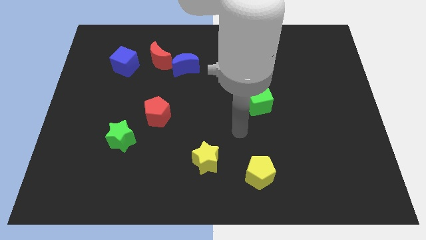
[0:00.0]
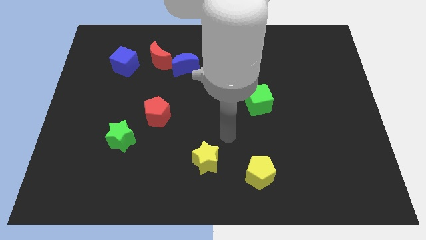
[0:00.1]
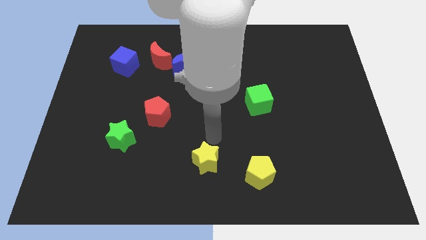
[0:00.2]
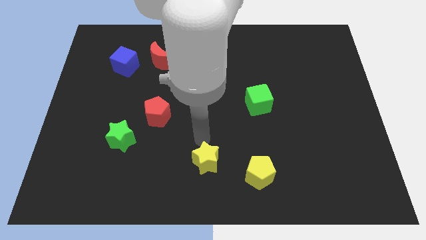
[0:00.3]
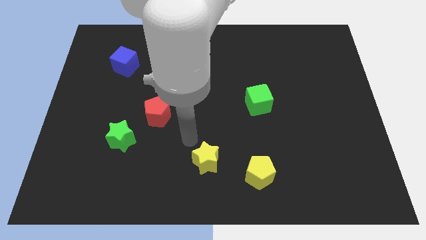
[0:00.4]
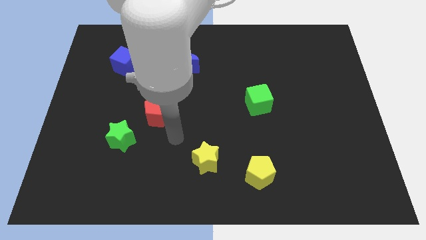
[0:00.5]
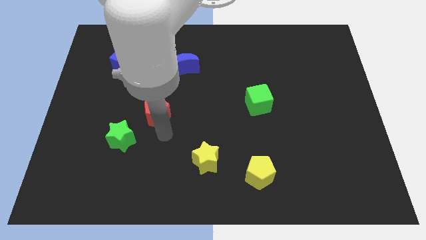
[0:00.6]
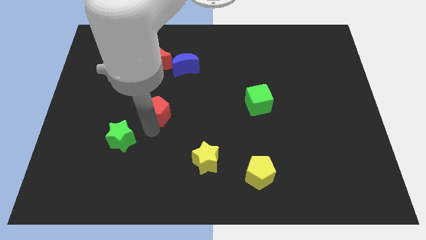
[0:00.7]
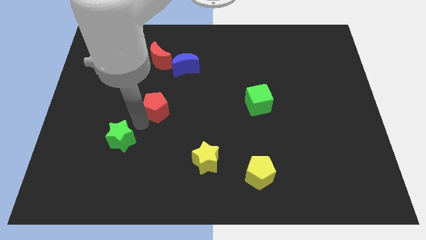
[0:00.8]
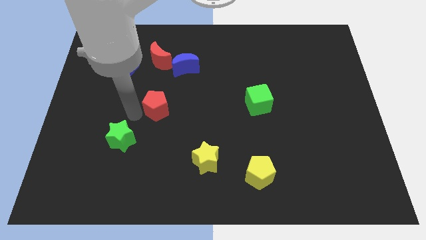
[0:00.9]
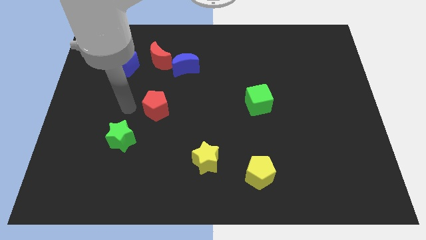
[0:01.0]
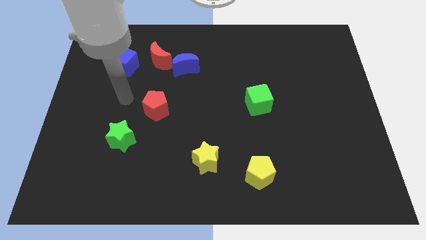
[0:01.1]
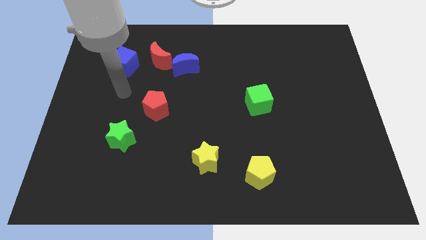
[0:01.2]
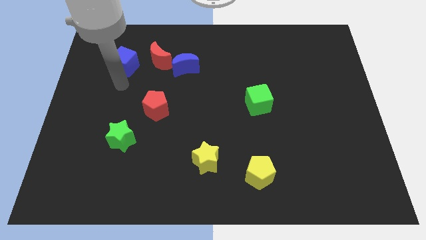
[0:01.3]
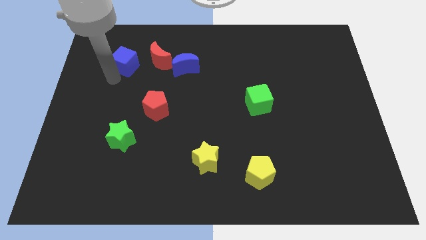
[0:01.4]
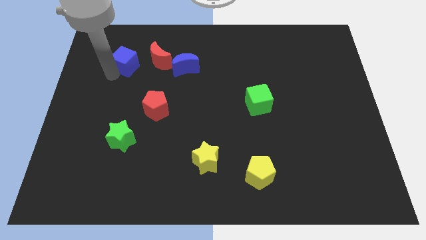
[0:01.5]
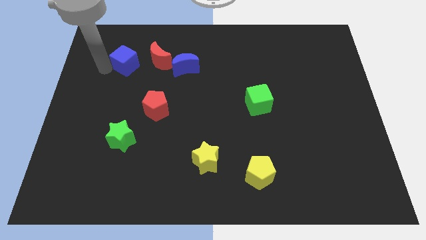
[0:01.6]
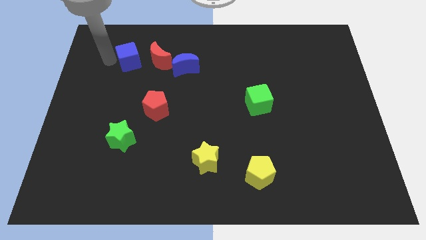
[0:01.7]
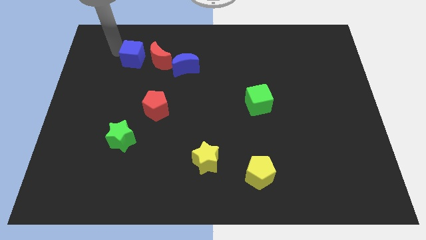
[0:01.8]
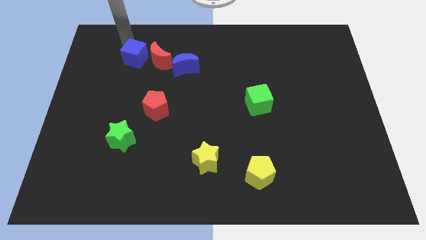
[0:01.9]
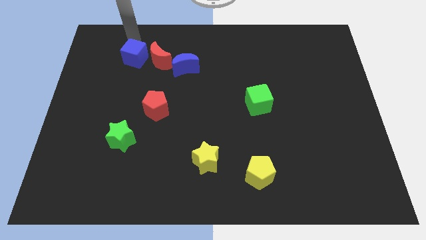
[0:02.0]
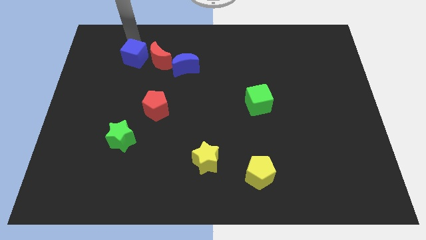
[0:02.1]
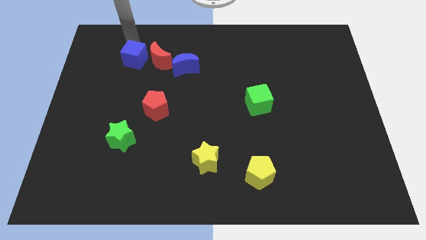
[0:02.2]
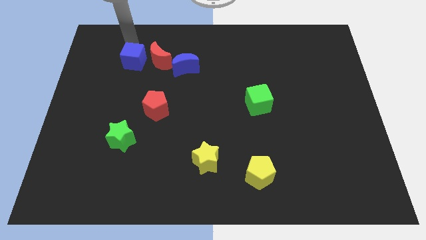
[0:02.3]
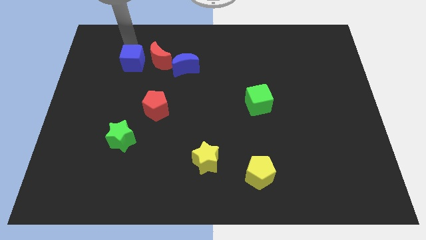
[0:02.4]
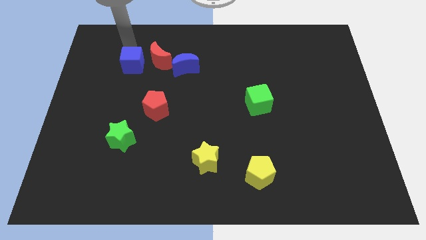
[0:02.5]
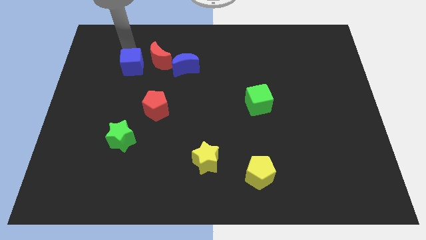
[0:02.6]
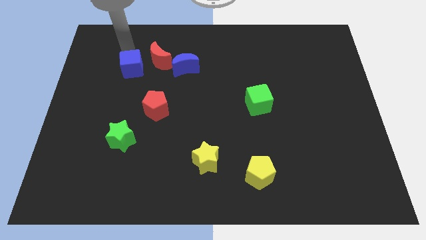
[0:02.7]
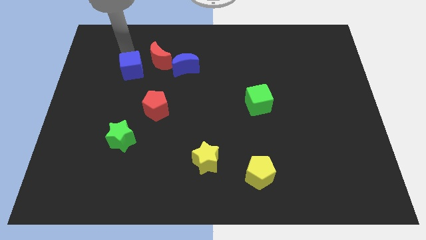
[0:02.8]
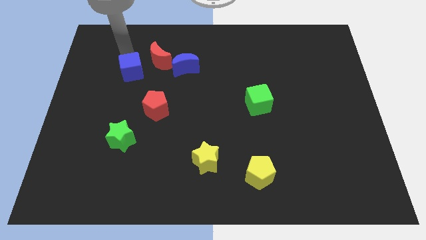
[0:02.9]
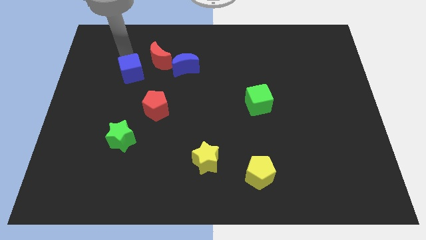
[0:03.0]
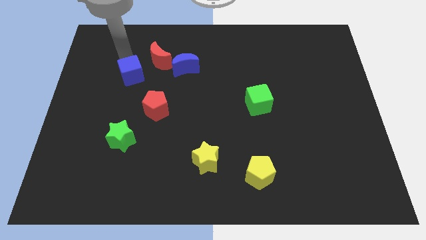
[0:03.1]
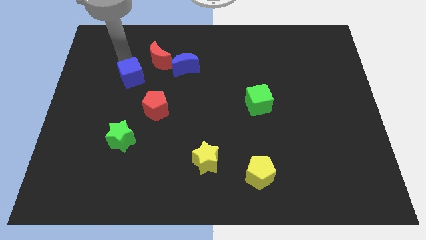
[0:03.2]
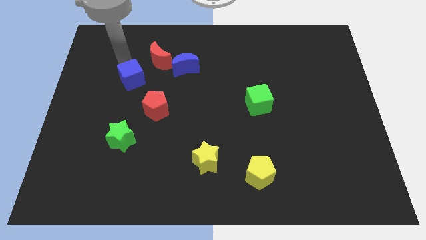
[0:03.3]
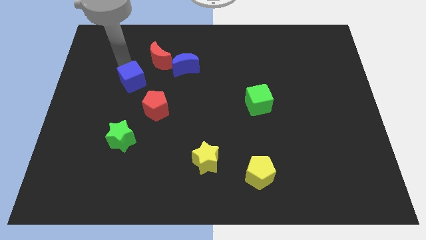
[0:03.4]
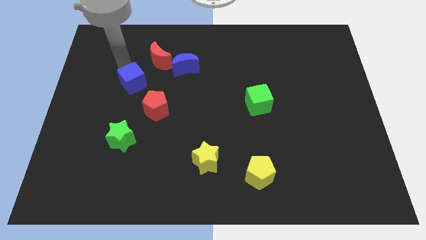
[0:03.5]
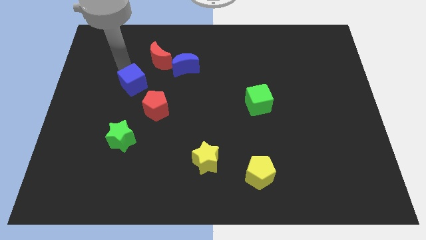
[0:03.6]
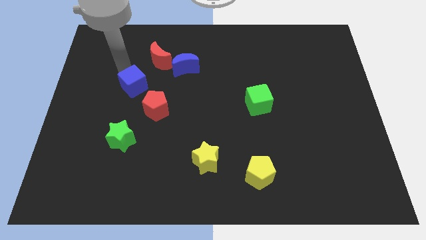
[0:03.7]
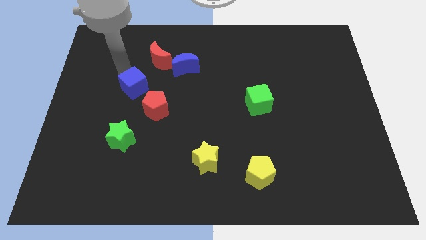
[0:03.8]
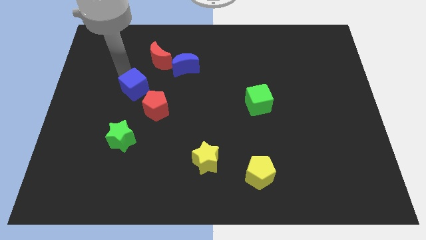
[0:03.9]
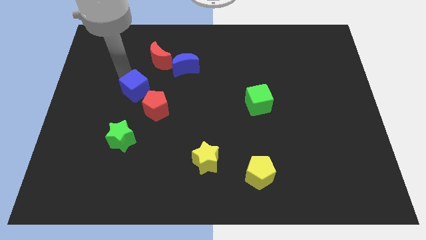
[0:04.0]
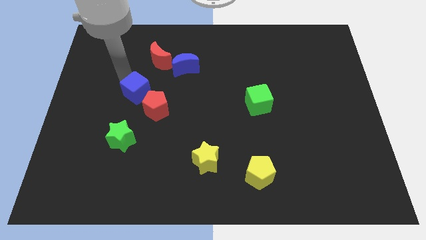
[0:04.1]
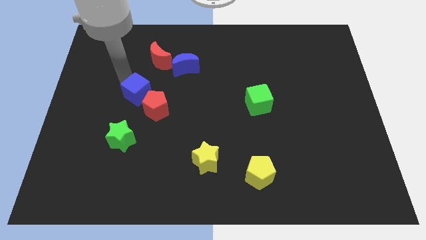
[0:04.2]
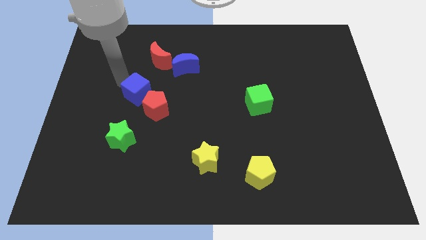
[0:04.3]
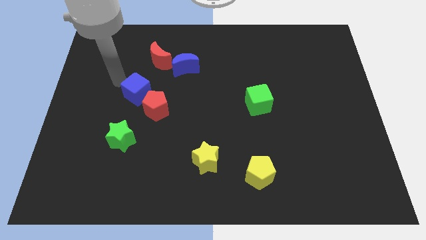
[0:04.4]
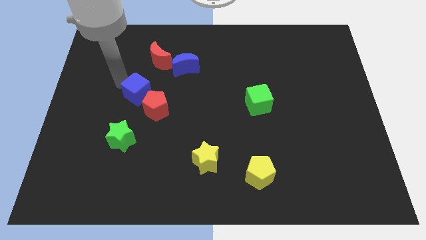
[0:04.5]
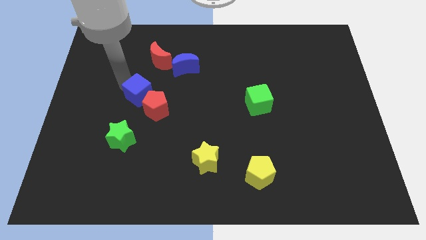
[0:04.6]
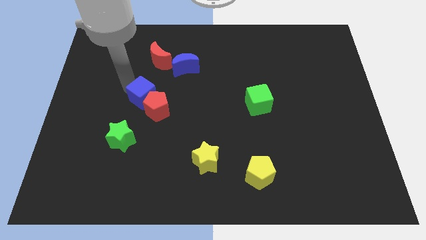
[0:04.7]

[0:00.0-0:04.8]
put the blue cube to the red pentagon

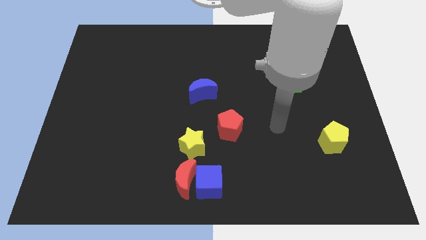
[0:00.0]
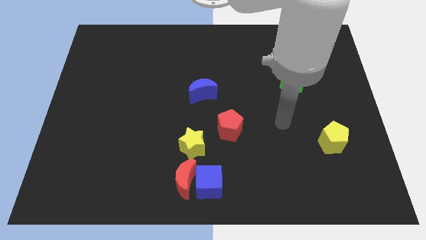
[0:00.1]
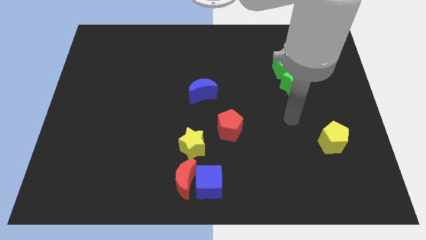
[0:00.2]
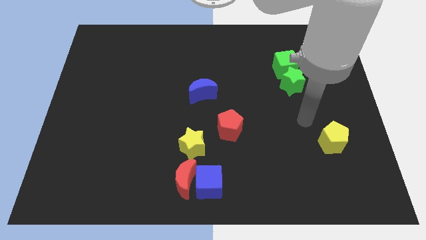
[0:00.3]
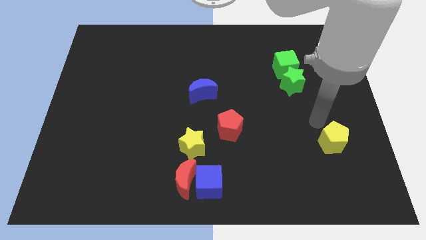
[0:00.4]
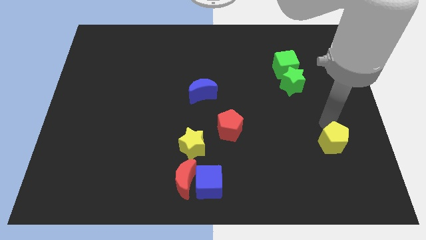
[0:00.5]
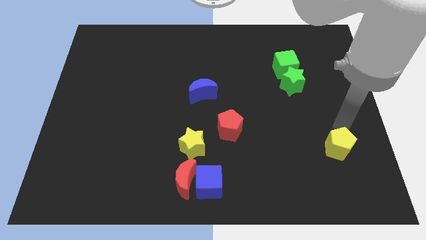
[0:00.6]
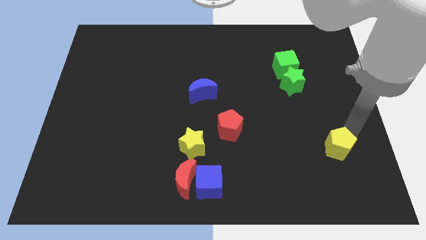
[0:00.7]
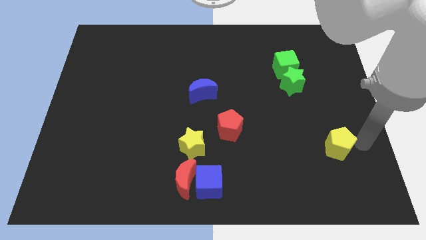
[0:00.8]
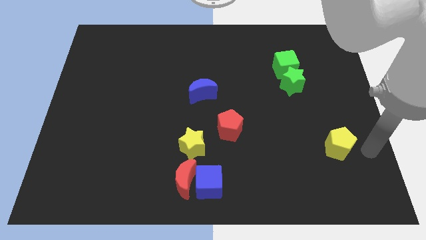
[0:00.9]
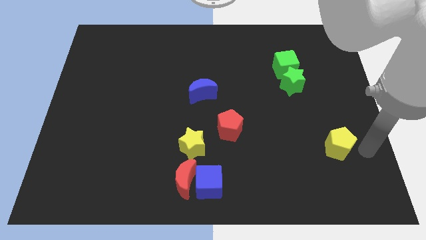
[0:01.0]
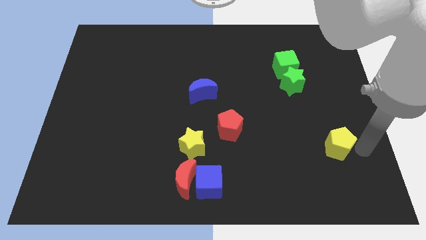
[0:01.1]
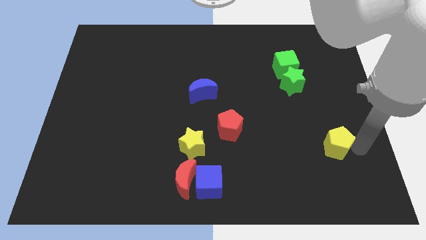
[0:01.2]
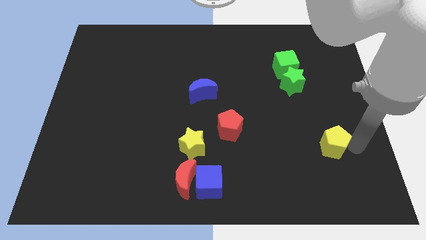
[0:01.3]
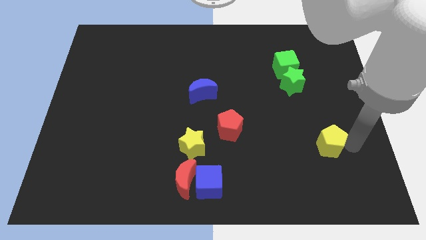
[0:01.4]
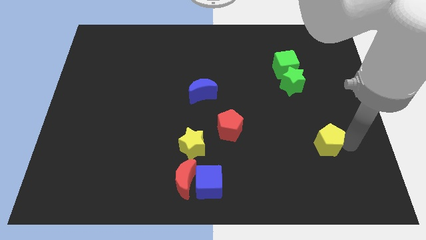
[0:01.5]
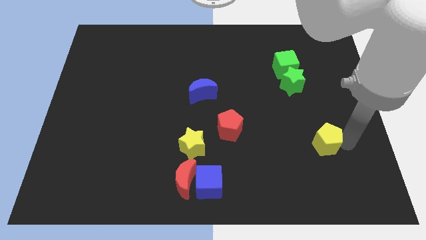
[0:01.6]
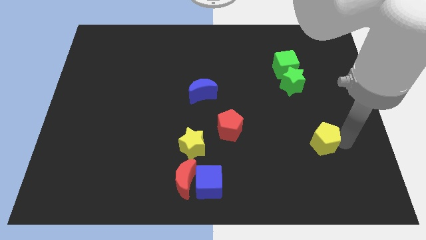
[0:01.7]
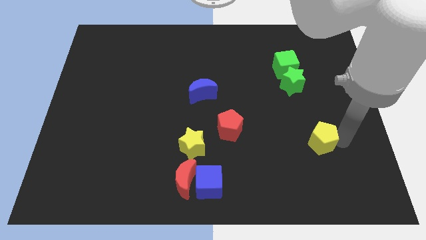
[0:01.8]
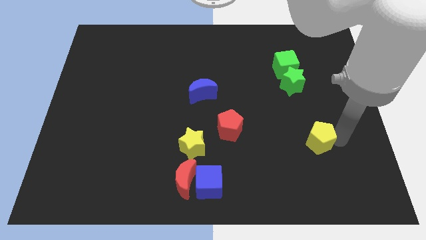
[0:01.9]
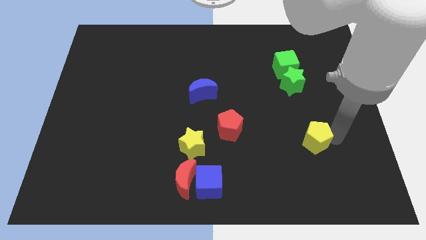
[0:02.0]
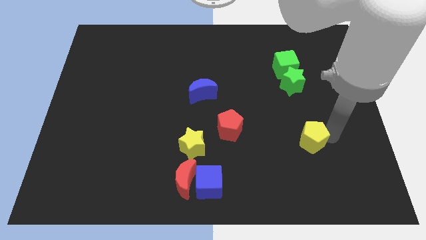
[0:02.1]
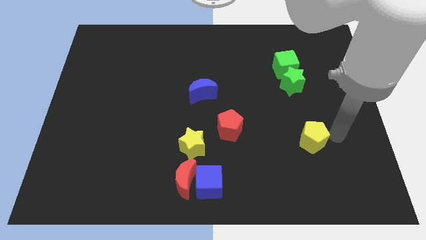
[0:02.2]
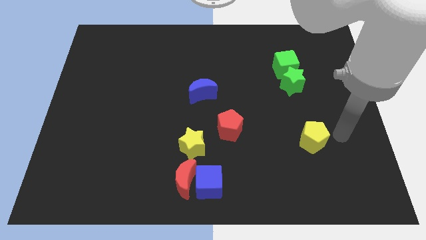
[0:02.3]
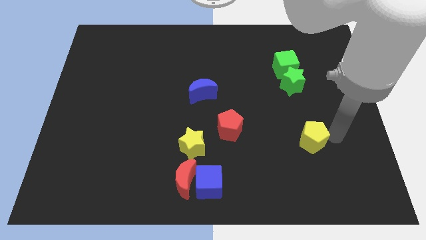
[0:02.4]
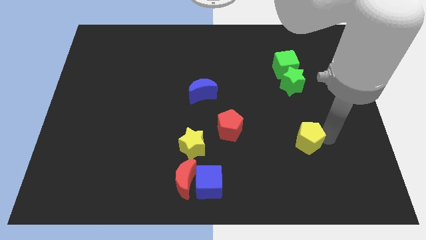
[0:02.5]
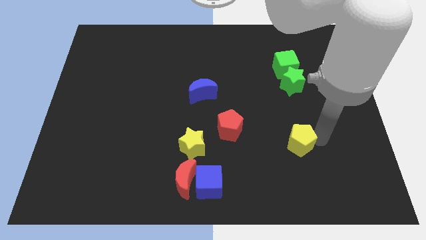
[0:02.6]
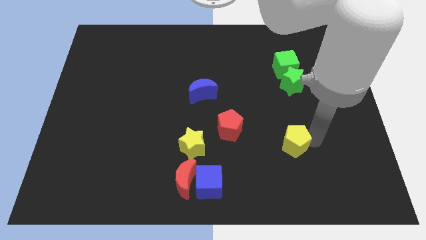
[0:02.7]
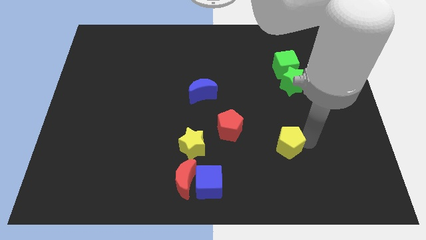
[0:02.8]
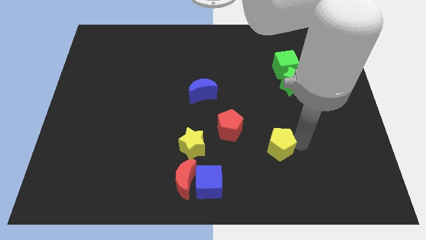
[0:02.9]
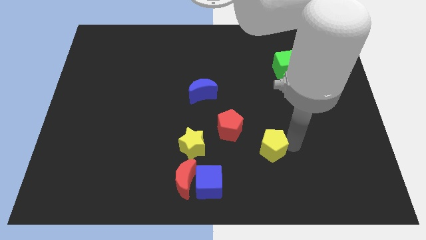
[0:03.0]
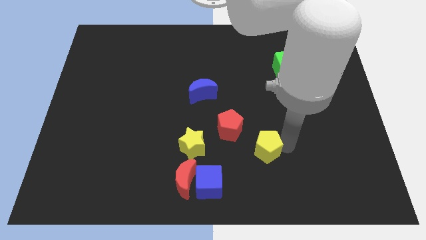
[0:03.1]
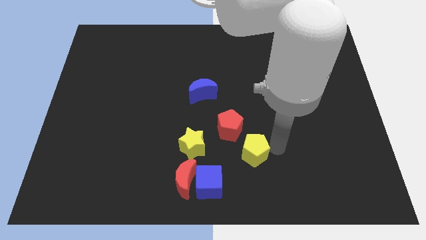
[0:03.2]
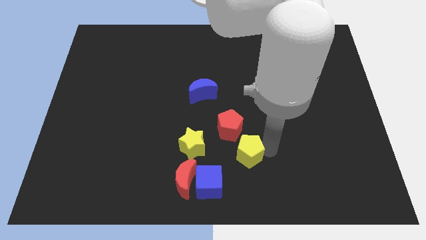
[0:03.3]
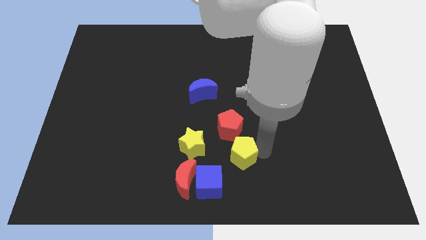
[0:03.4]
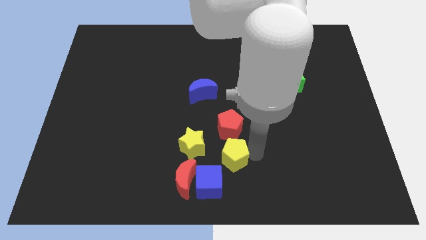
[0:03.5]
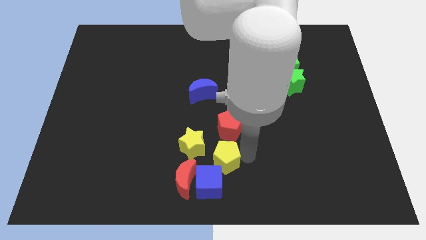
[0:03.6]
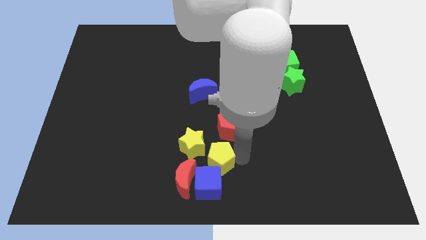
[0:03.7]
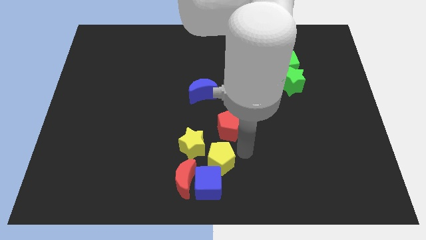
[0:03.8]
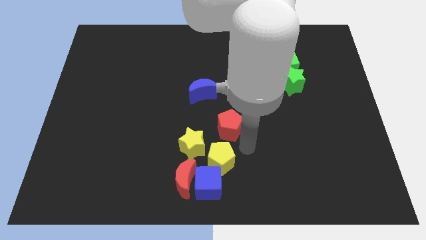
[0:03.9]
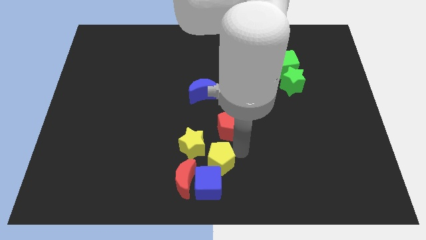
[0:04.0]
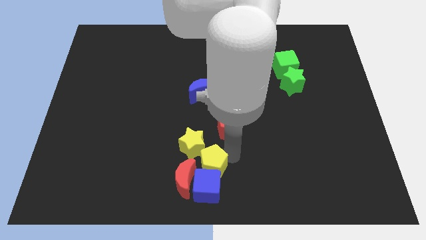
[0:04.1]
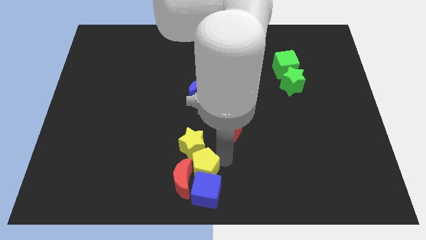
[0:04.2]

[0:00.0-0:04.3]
move the yellow pentagon to the red moon
